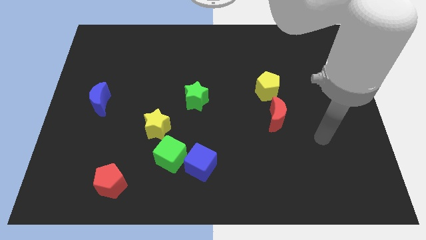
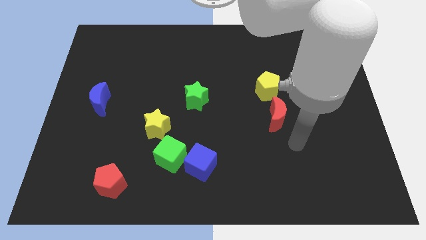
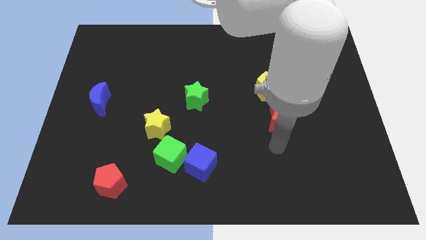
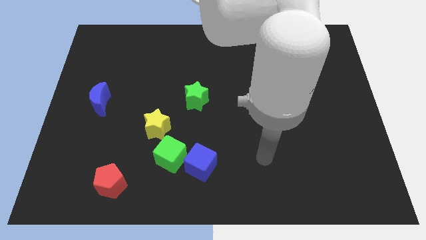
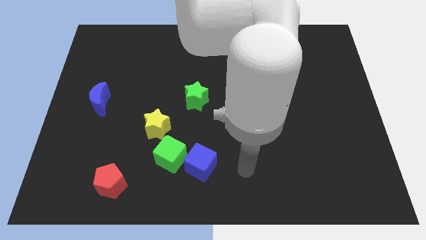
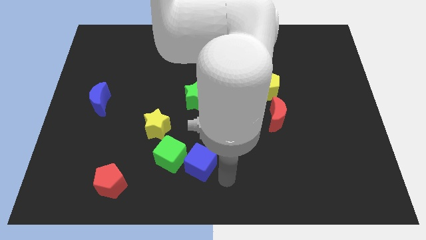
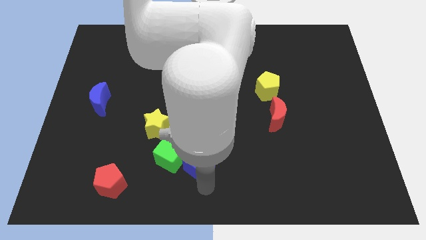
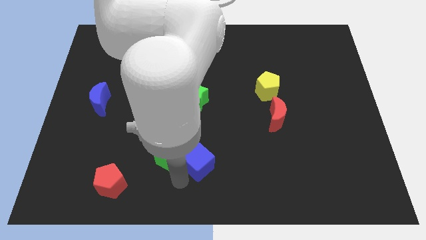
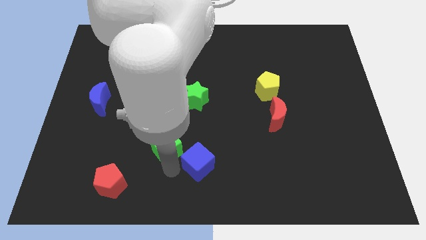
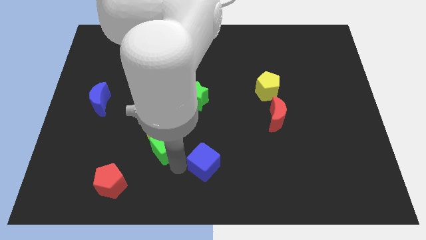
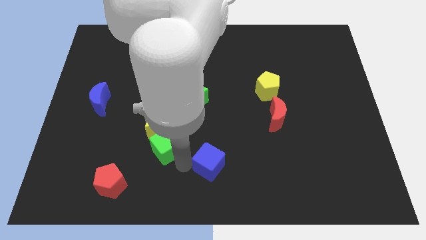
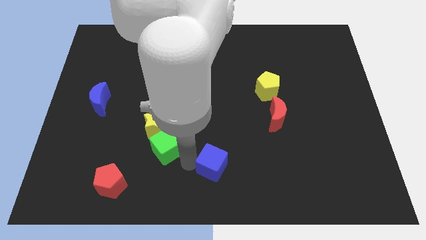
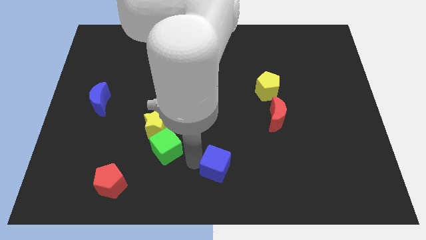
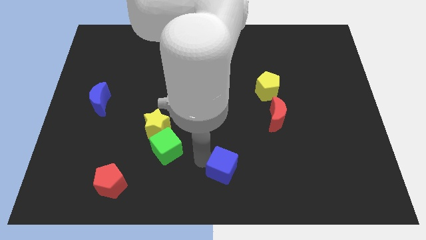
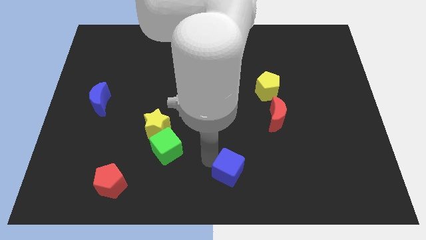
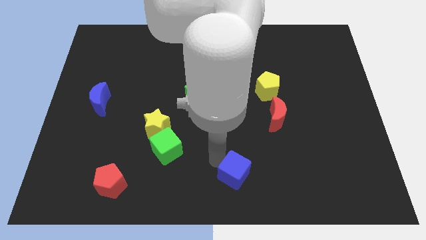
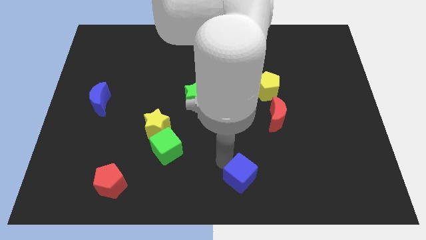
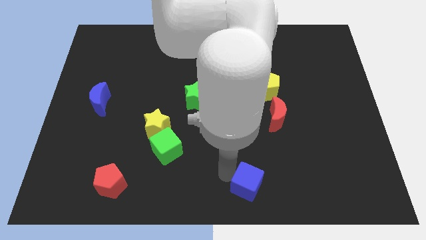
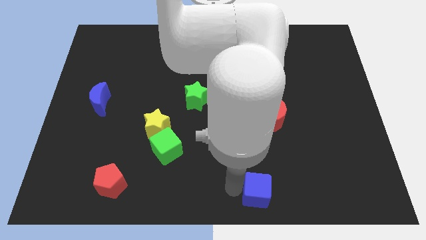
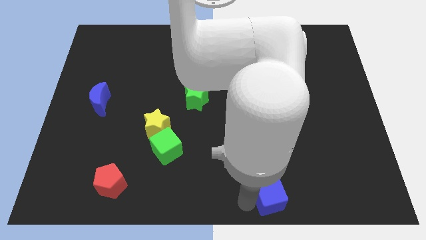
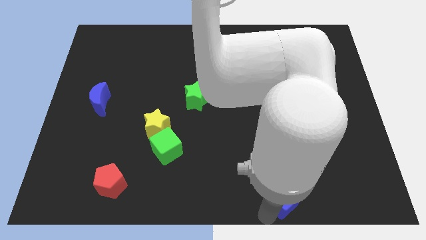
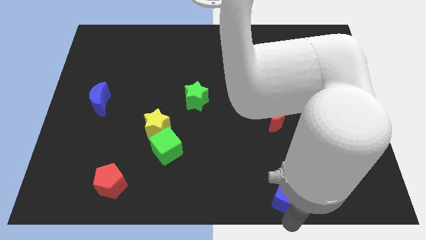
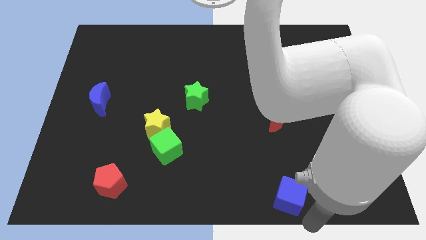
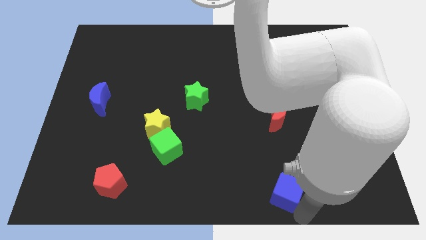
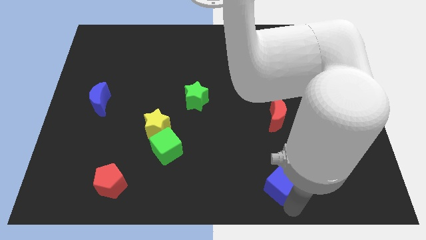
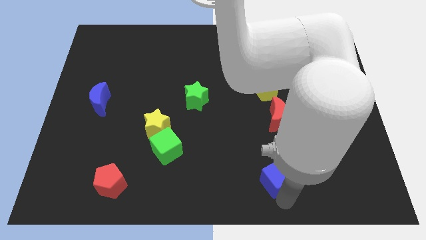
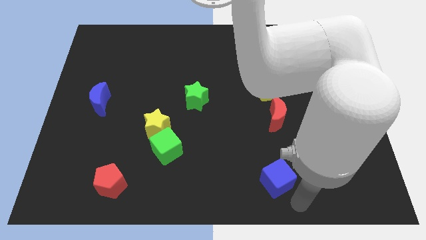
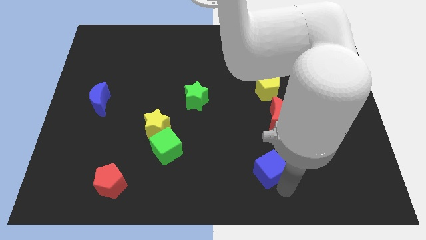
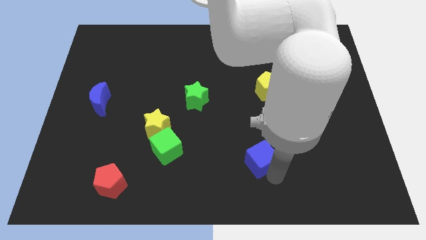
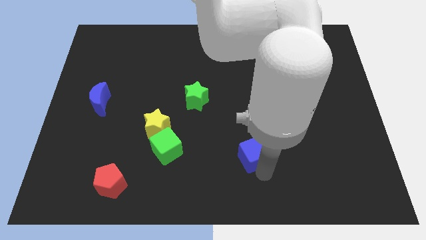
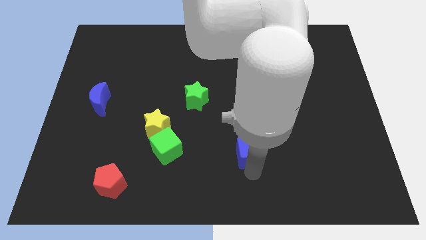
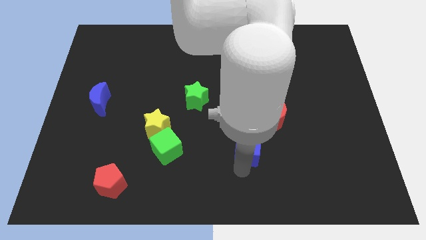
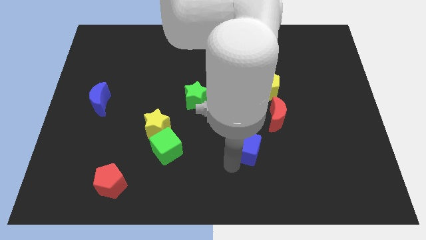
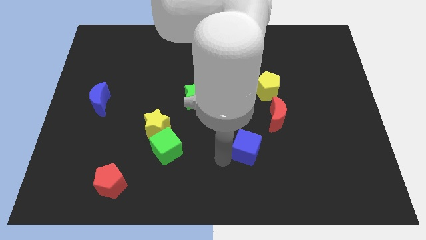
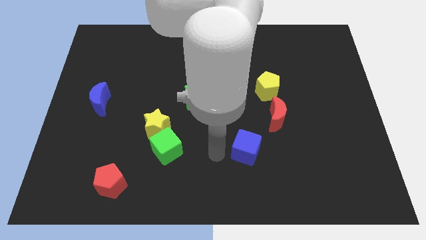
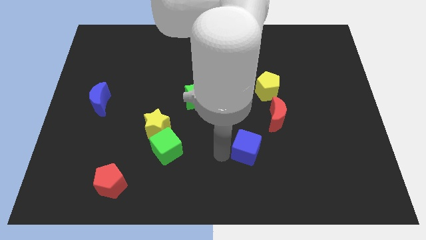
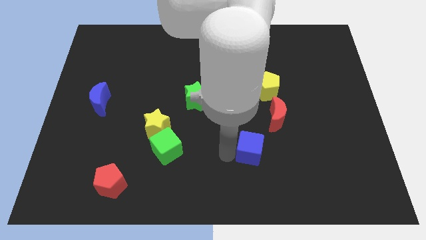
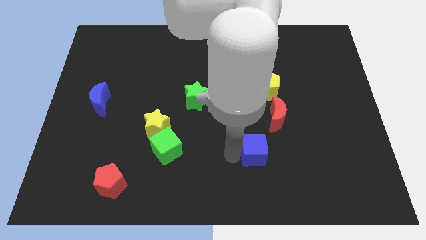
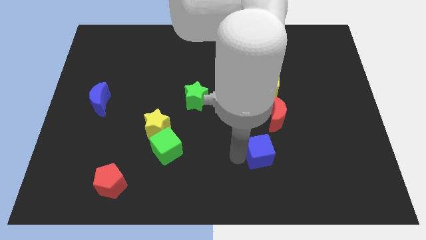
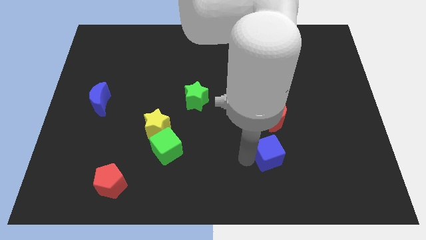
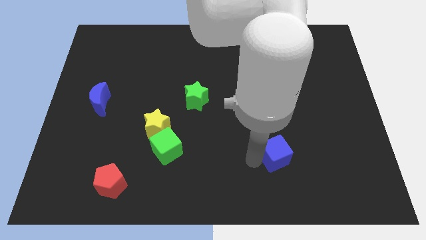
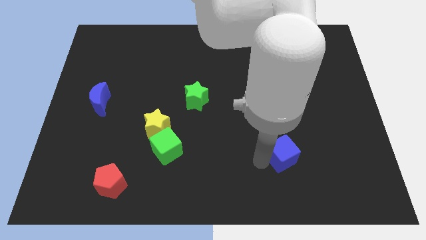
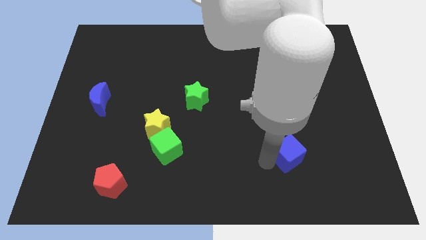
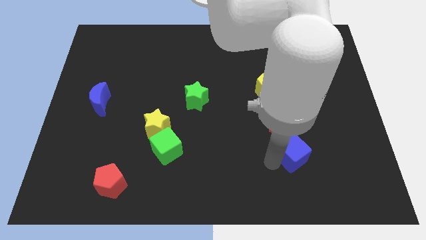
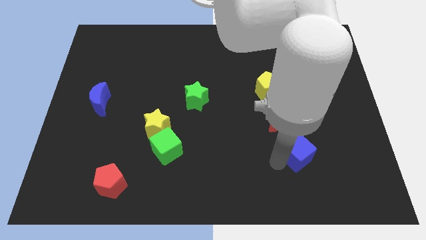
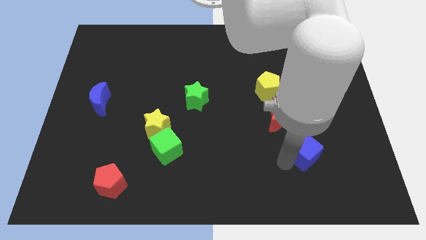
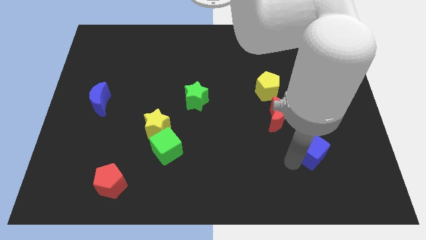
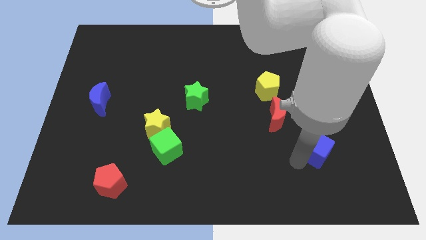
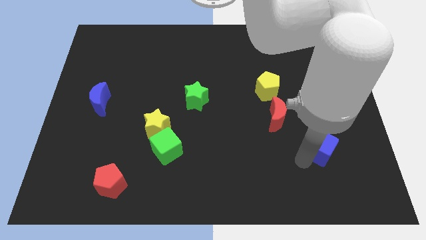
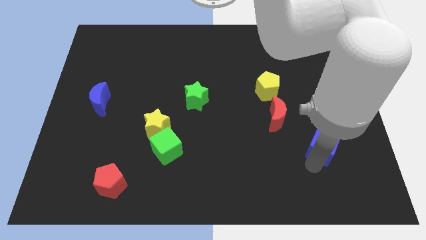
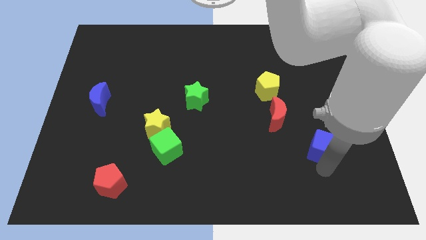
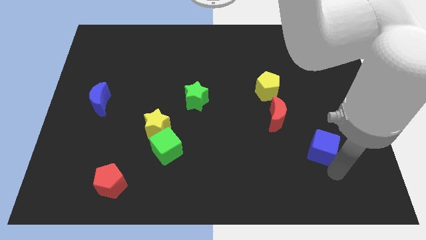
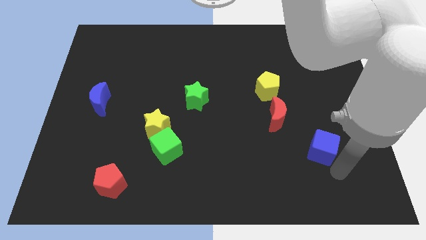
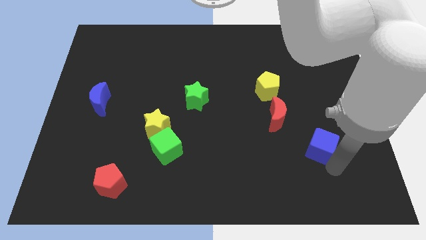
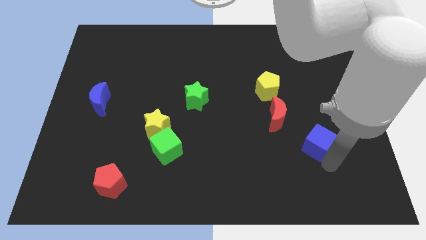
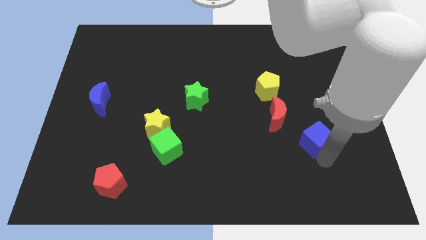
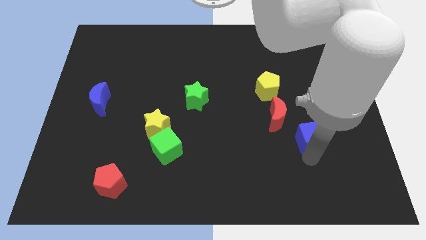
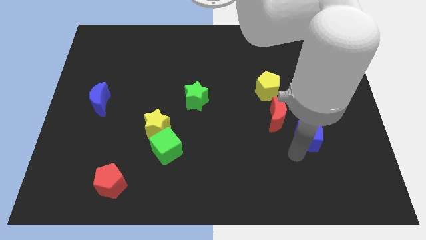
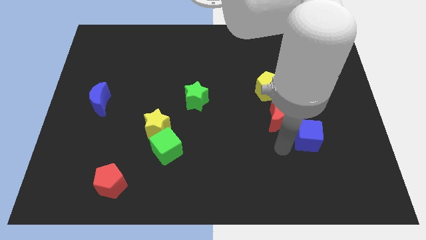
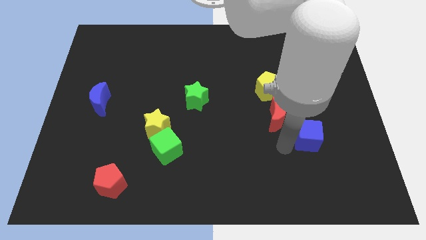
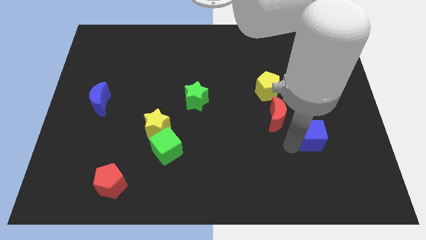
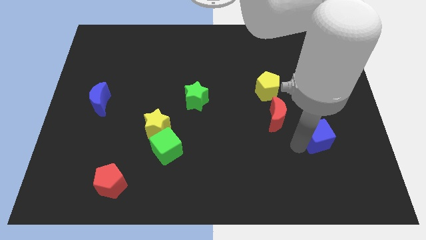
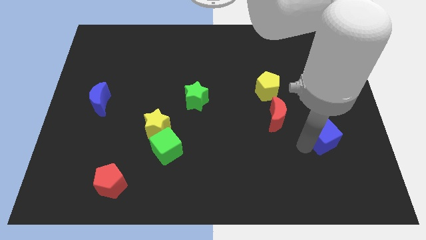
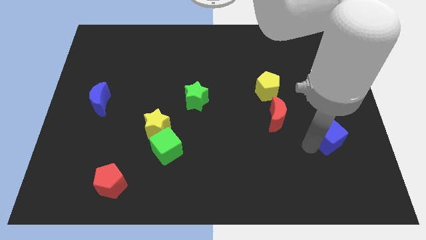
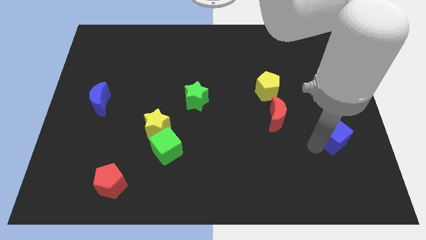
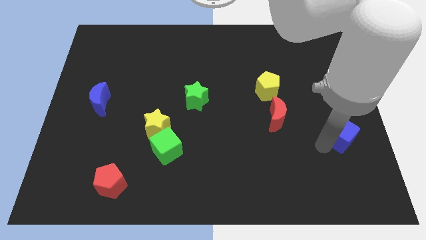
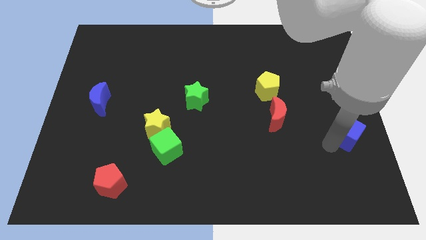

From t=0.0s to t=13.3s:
move the blue cube to the right side

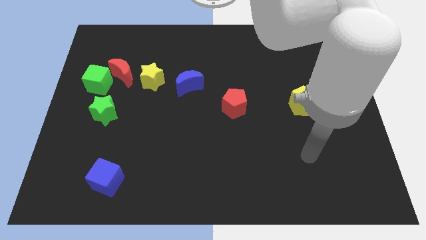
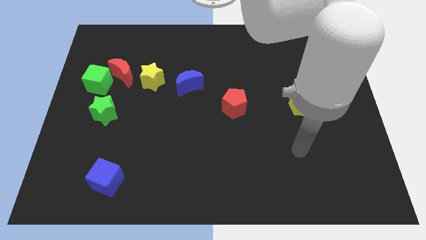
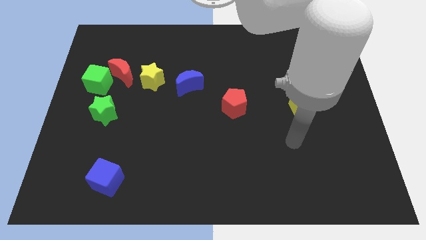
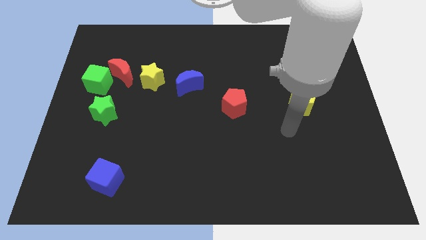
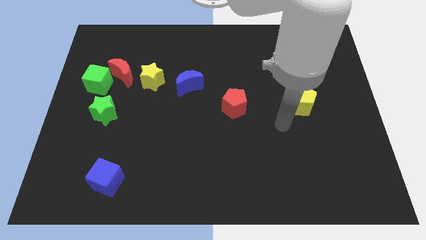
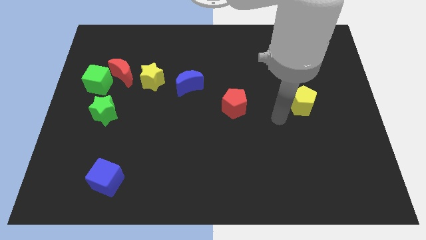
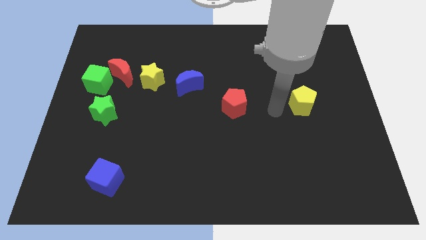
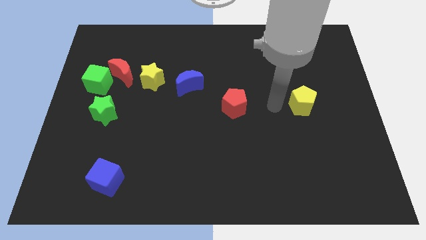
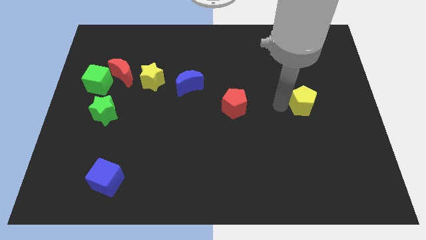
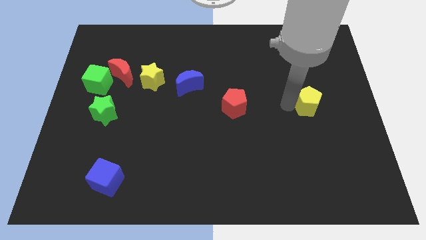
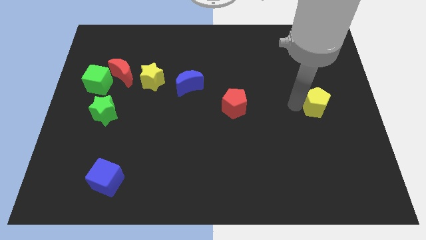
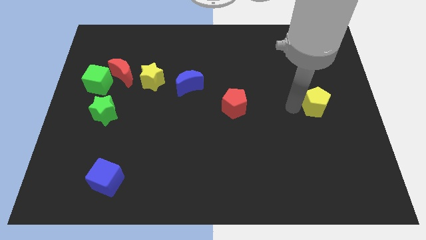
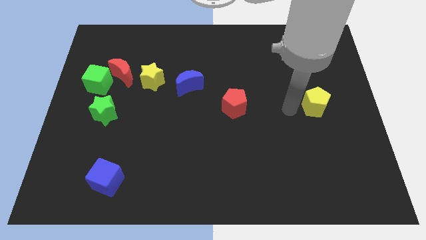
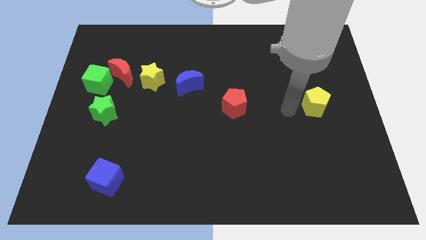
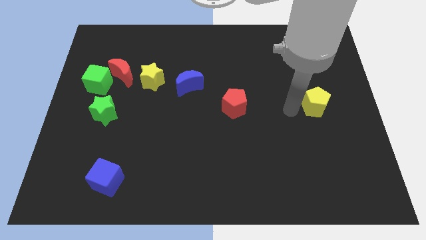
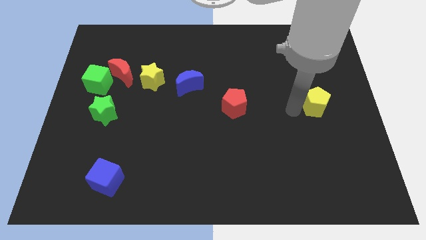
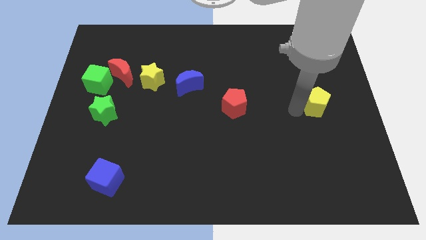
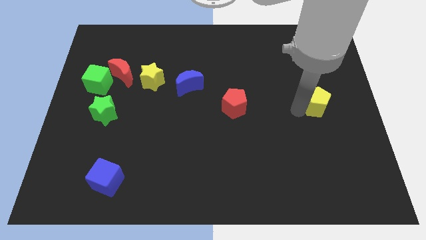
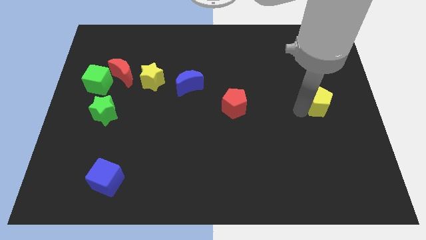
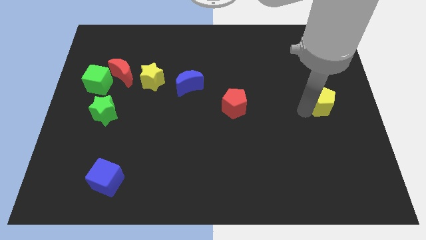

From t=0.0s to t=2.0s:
put the yellow pentagon to the right side of the board
